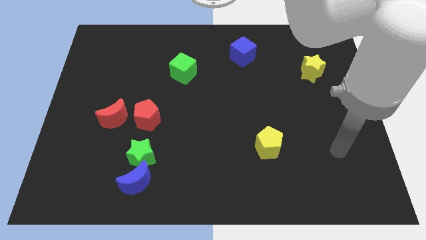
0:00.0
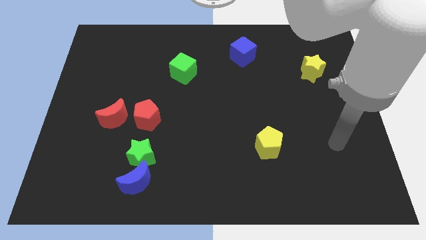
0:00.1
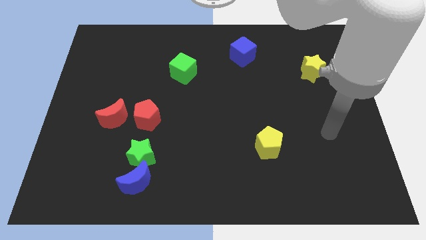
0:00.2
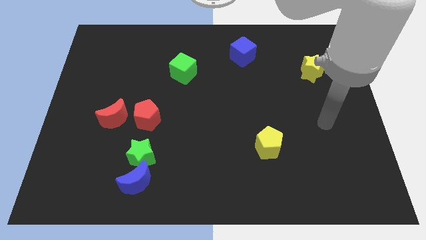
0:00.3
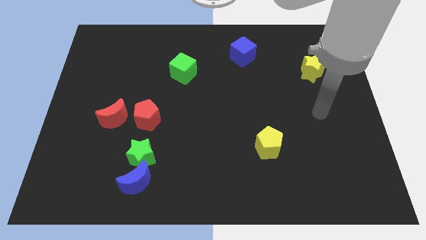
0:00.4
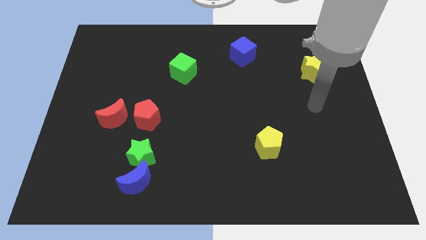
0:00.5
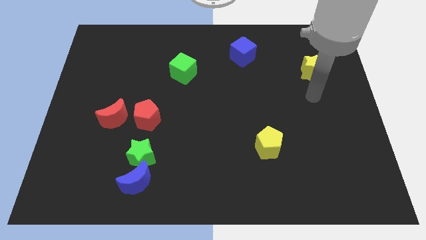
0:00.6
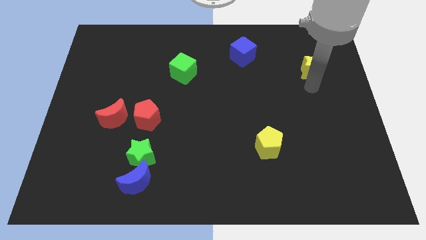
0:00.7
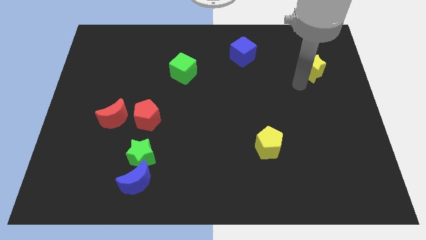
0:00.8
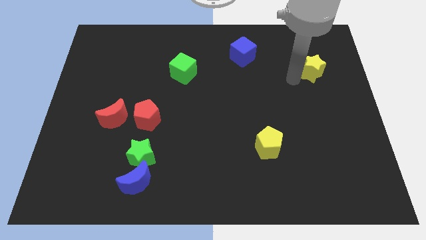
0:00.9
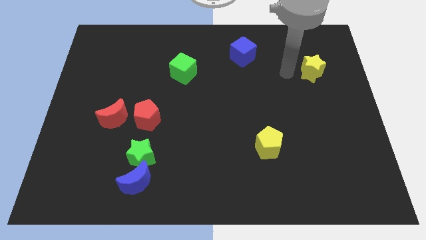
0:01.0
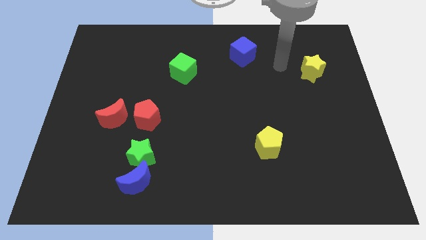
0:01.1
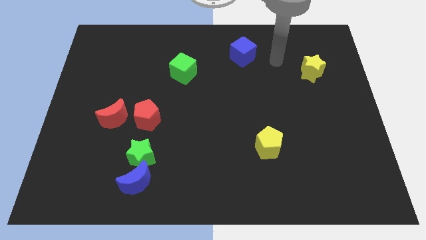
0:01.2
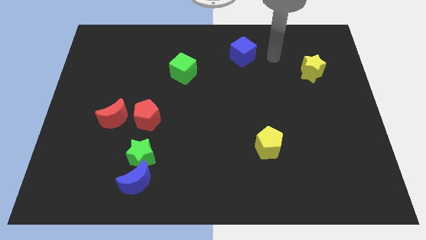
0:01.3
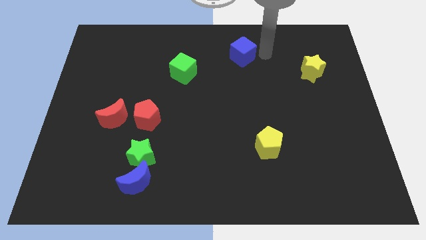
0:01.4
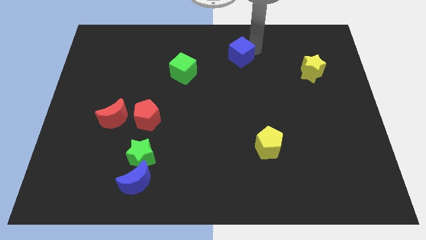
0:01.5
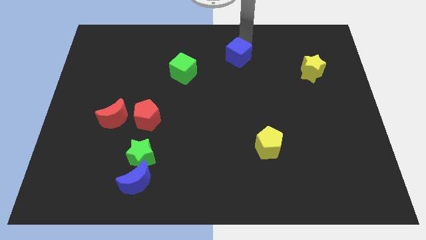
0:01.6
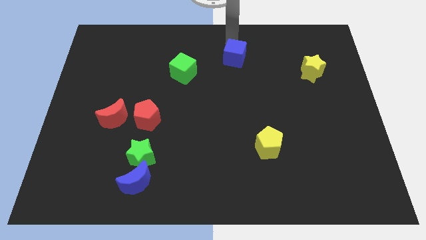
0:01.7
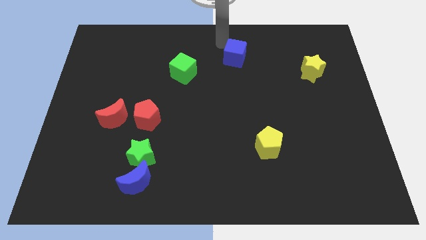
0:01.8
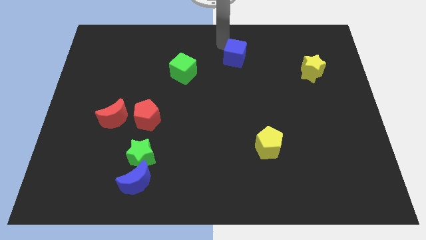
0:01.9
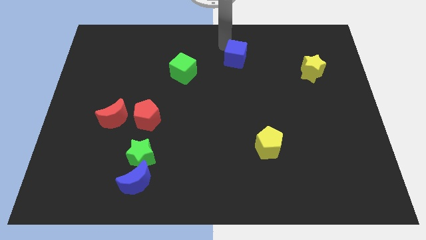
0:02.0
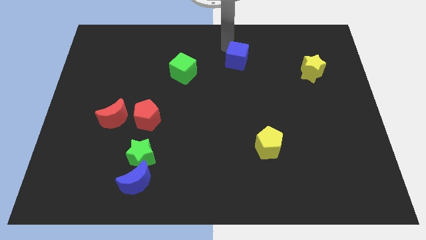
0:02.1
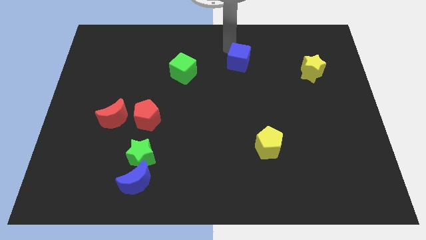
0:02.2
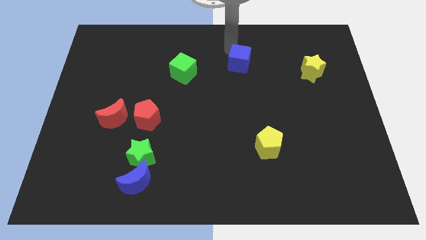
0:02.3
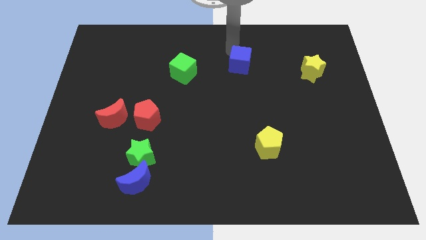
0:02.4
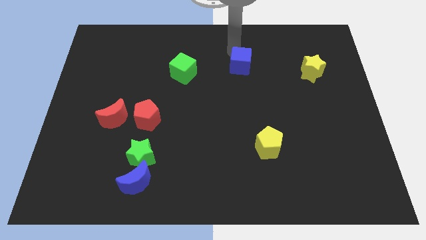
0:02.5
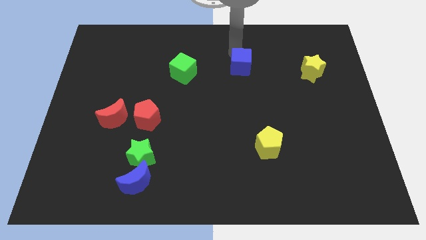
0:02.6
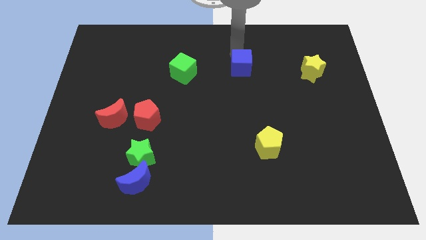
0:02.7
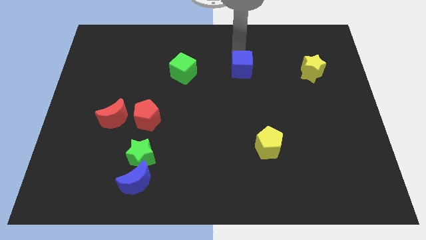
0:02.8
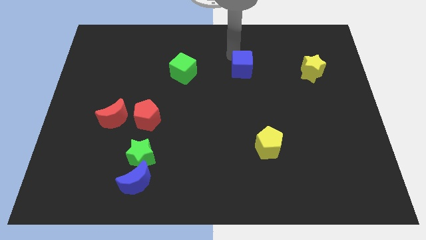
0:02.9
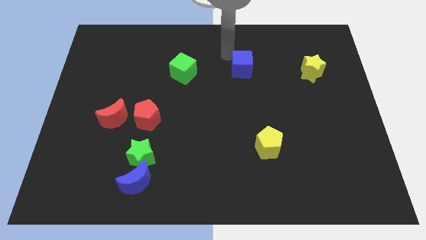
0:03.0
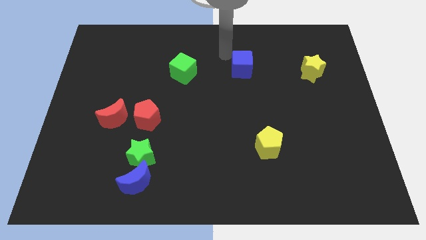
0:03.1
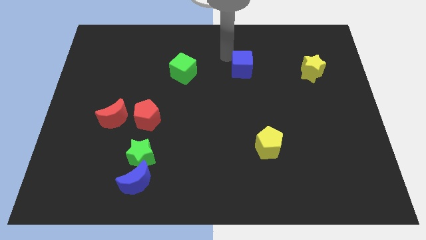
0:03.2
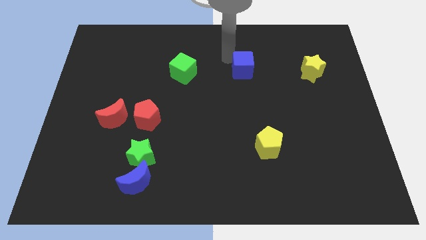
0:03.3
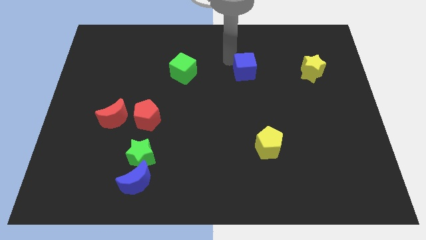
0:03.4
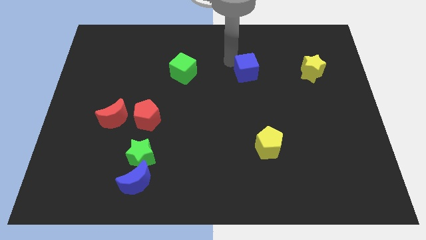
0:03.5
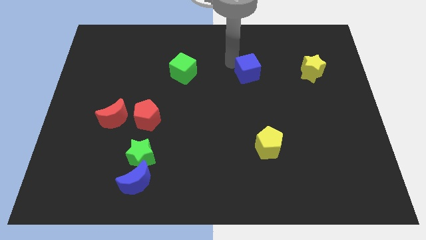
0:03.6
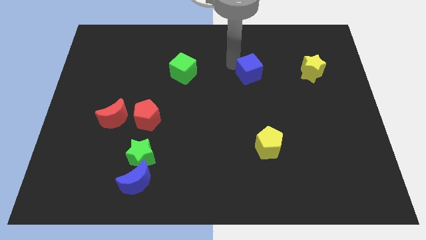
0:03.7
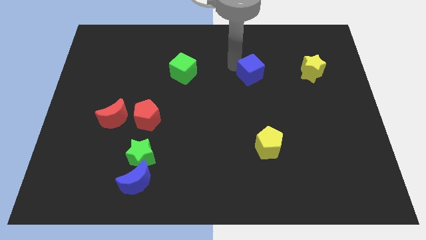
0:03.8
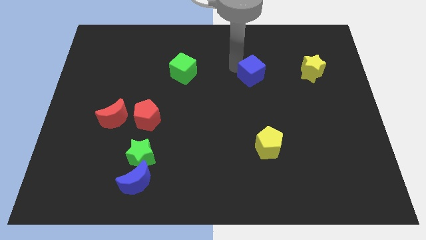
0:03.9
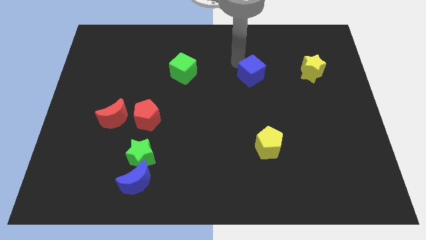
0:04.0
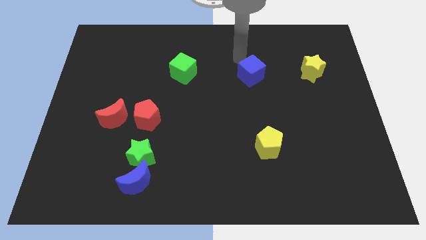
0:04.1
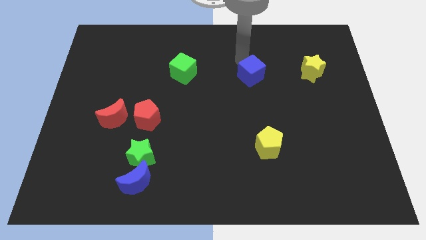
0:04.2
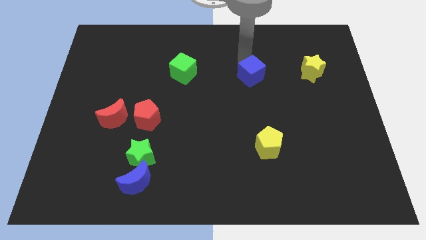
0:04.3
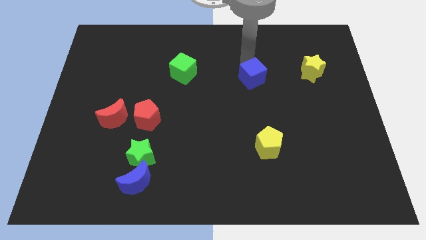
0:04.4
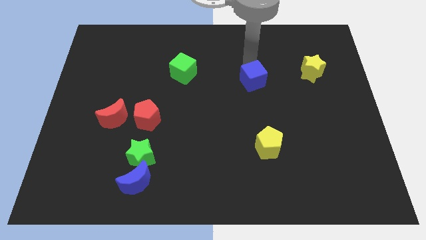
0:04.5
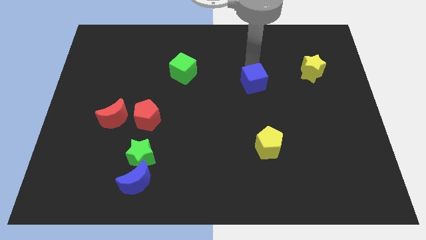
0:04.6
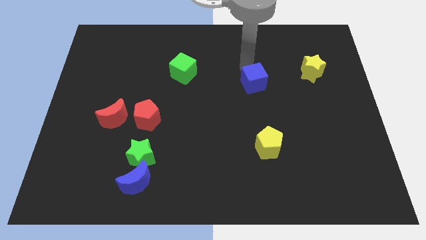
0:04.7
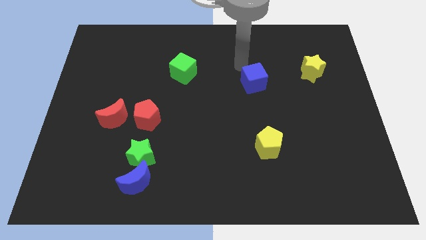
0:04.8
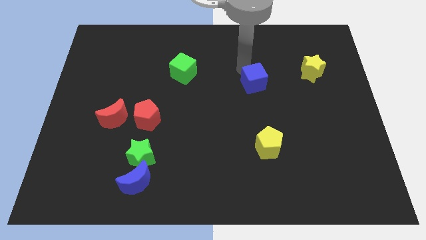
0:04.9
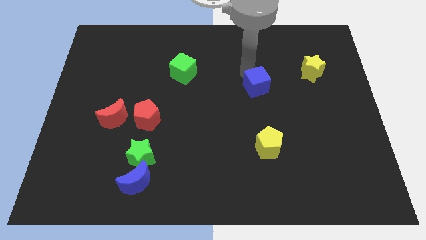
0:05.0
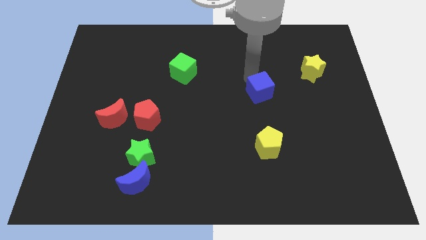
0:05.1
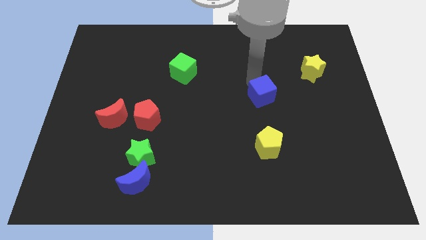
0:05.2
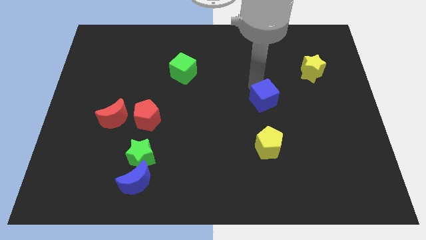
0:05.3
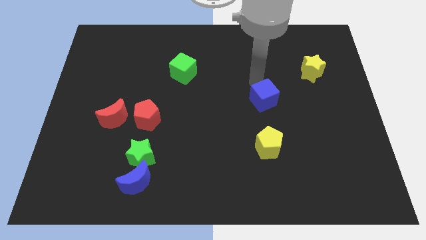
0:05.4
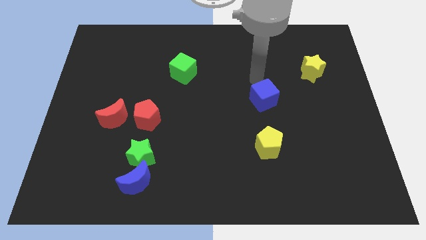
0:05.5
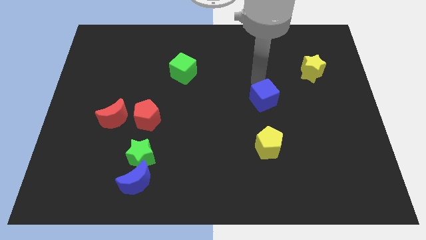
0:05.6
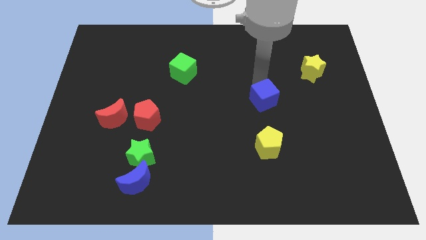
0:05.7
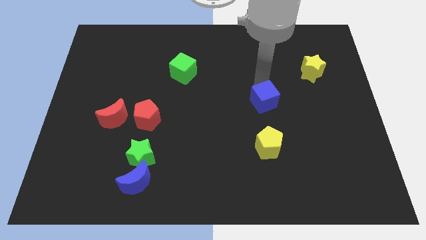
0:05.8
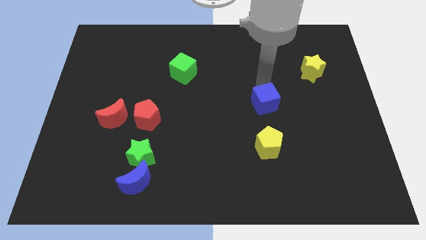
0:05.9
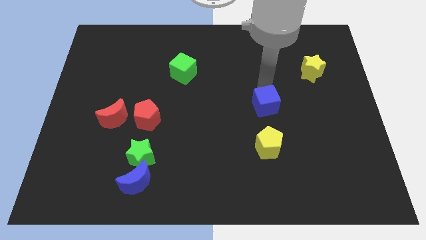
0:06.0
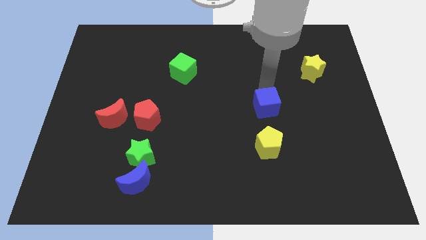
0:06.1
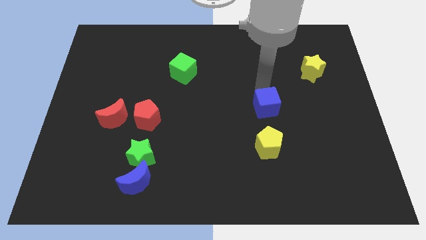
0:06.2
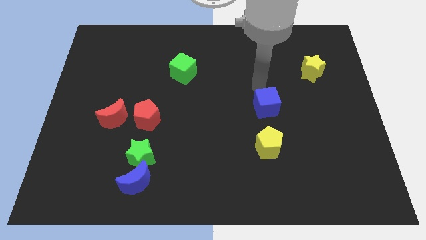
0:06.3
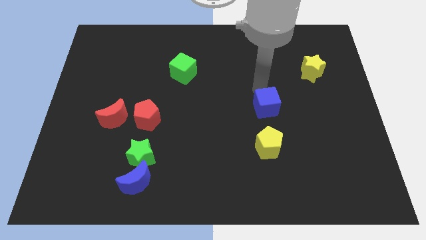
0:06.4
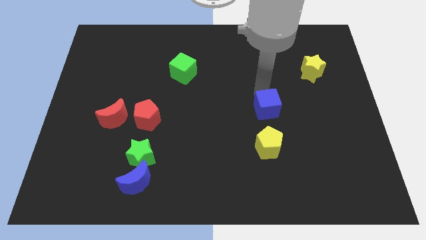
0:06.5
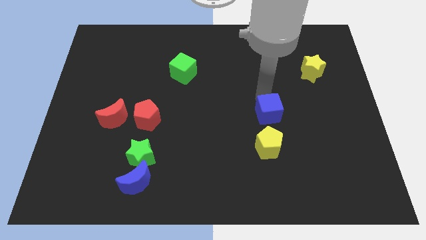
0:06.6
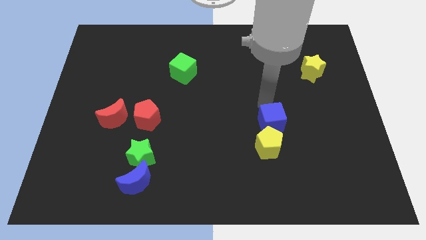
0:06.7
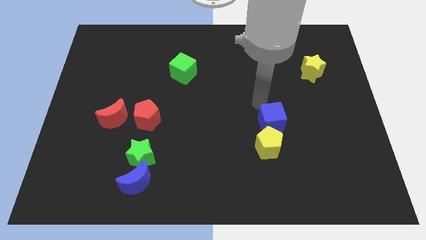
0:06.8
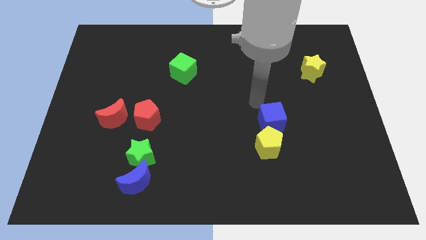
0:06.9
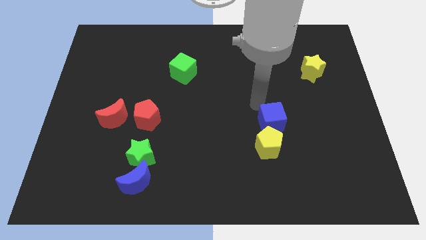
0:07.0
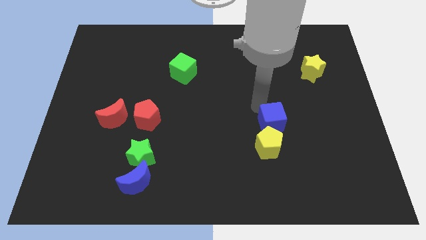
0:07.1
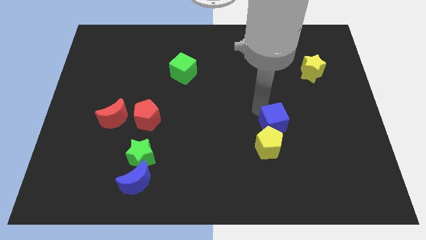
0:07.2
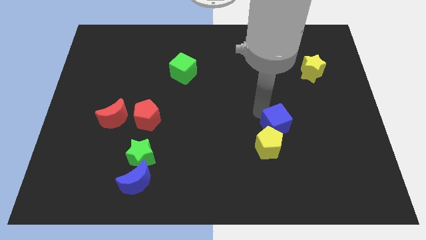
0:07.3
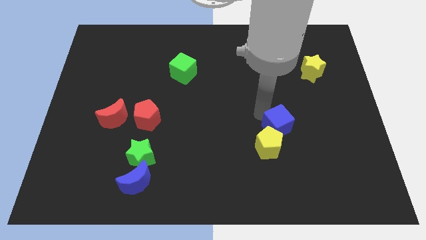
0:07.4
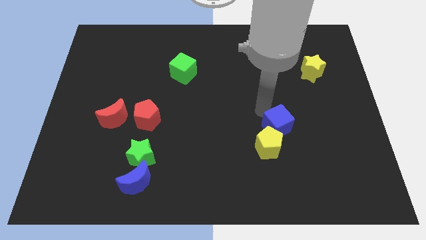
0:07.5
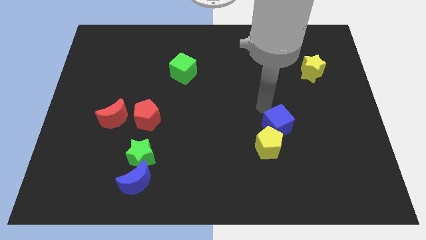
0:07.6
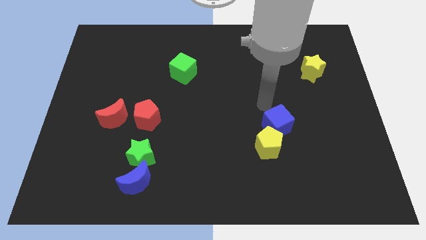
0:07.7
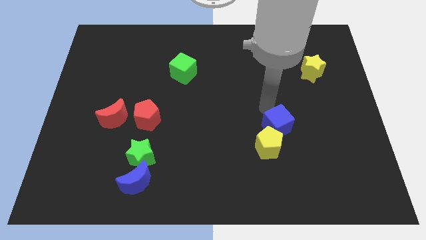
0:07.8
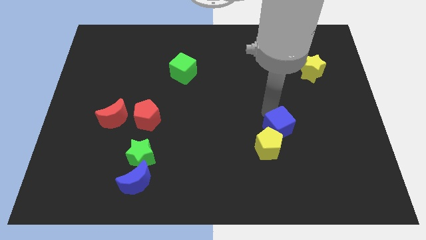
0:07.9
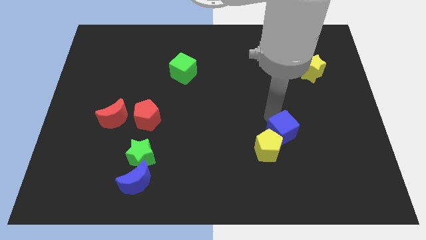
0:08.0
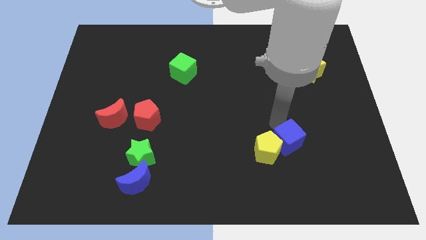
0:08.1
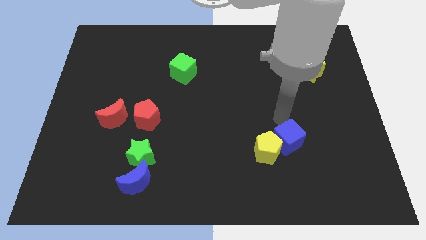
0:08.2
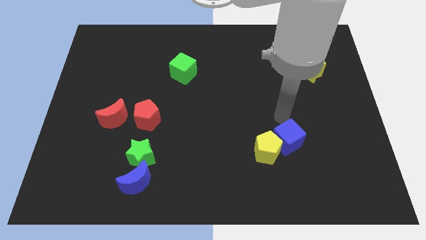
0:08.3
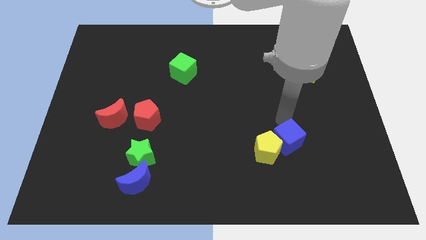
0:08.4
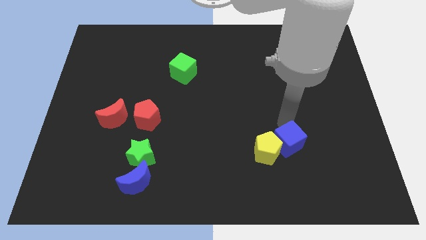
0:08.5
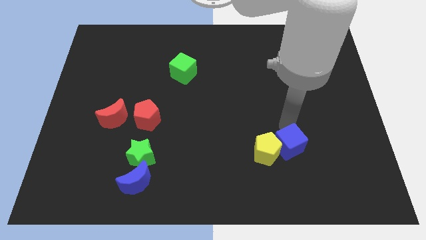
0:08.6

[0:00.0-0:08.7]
move the blue cube to the bottom right of the yellow pentagon
